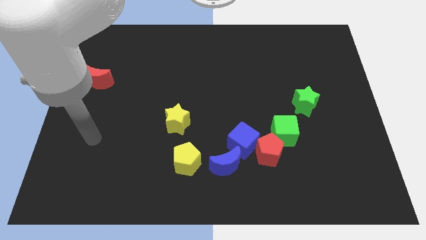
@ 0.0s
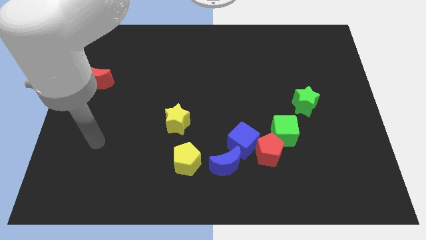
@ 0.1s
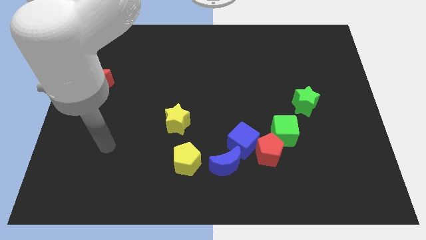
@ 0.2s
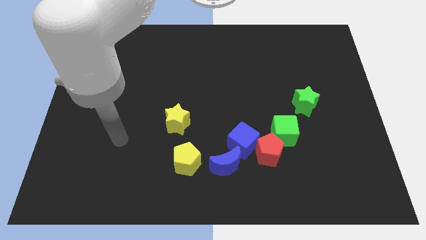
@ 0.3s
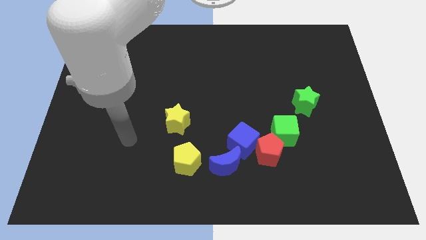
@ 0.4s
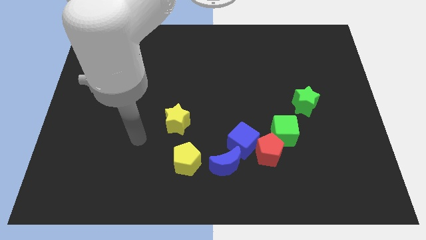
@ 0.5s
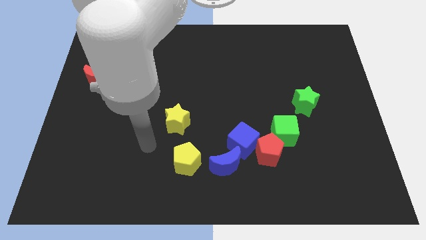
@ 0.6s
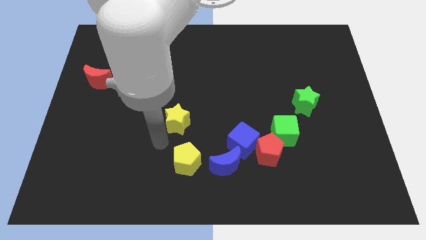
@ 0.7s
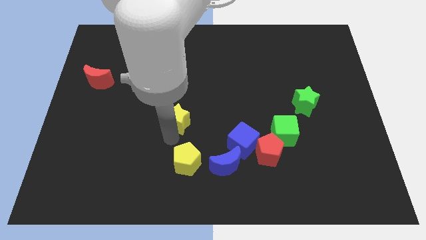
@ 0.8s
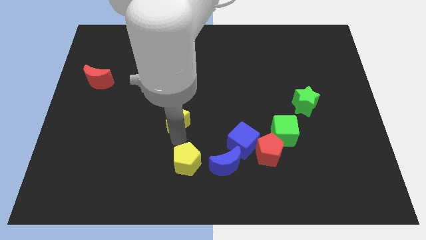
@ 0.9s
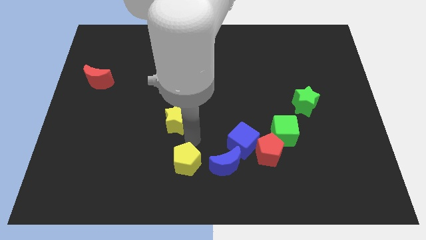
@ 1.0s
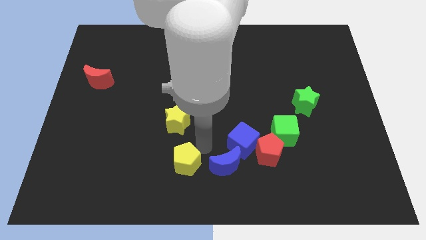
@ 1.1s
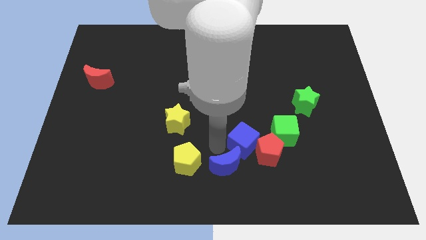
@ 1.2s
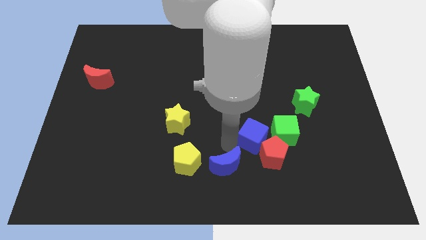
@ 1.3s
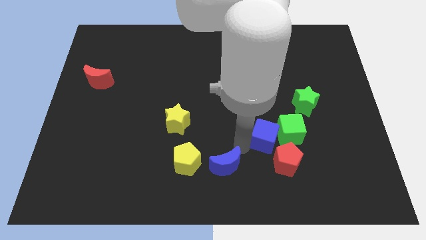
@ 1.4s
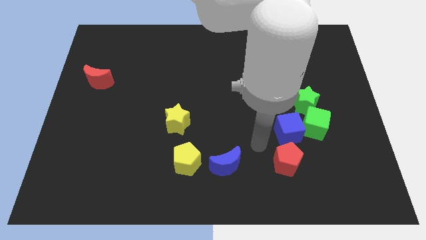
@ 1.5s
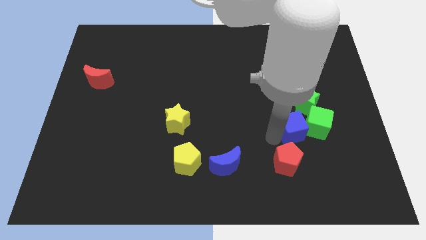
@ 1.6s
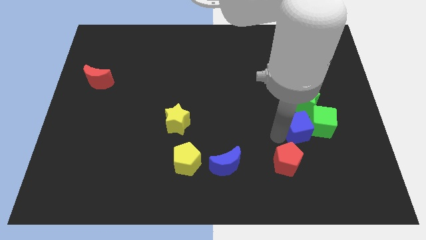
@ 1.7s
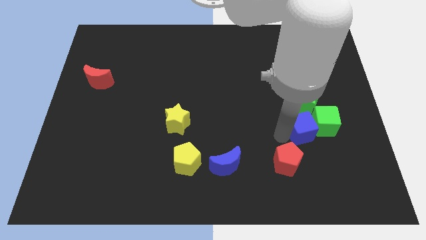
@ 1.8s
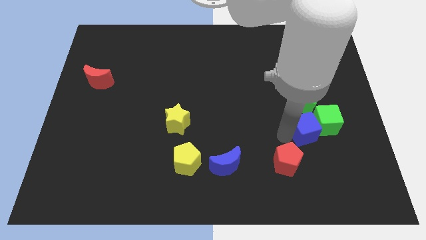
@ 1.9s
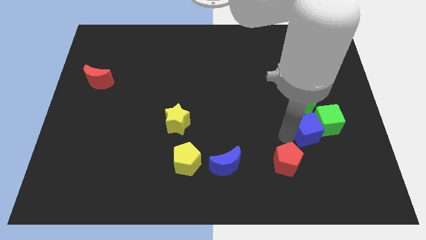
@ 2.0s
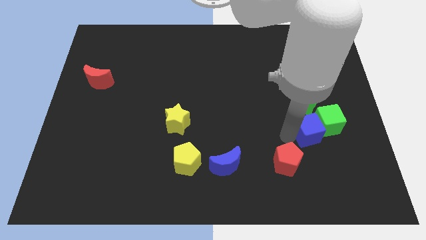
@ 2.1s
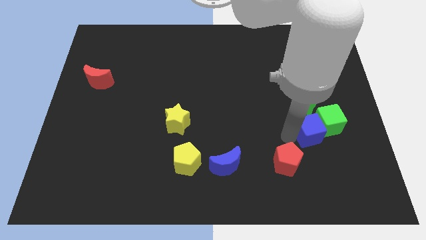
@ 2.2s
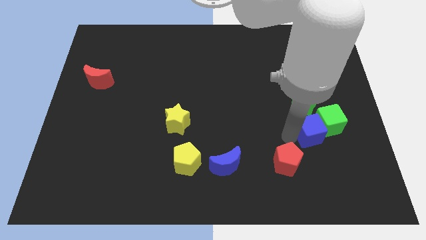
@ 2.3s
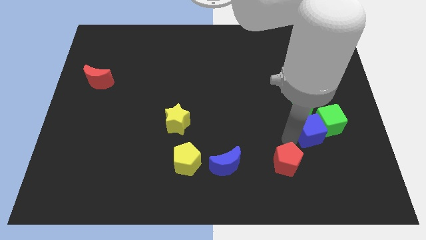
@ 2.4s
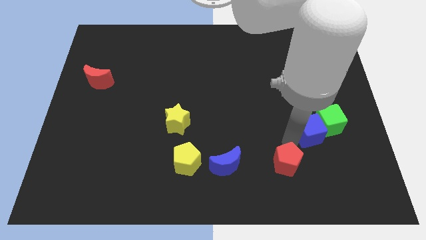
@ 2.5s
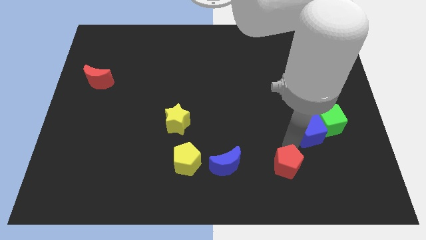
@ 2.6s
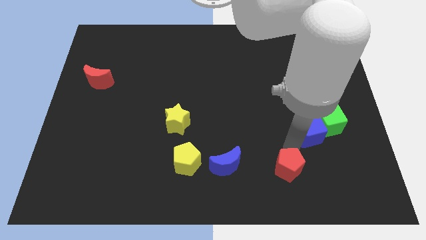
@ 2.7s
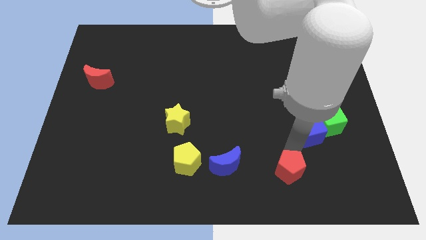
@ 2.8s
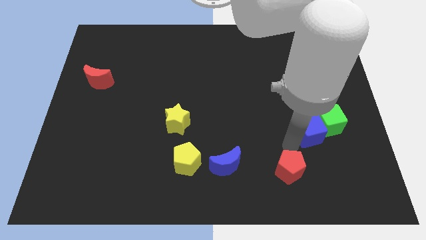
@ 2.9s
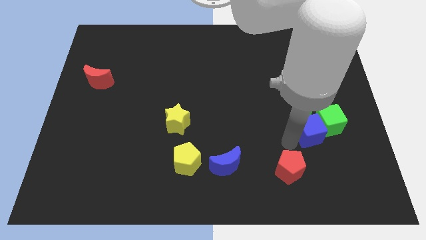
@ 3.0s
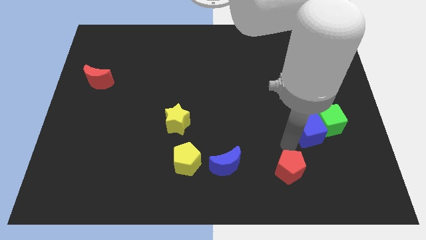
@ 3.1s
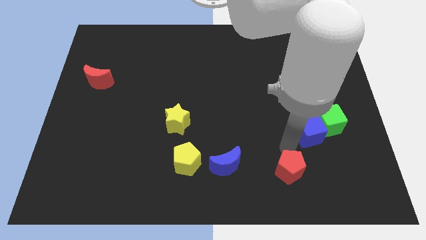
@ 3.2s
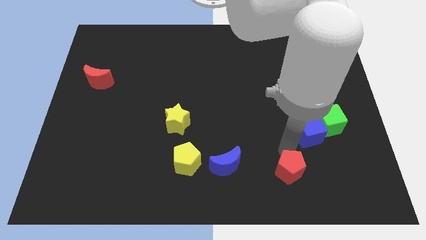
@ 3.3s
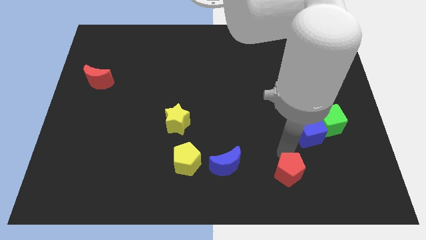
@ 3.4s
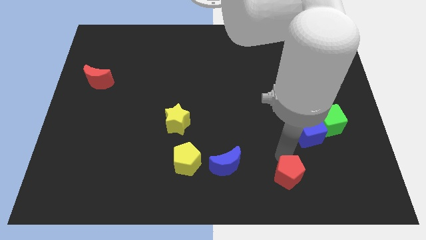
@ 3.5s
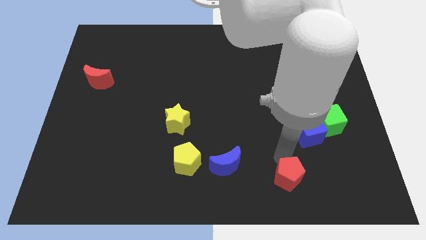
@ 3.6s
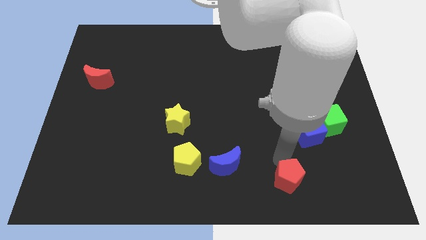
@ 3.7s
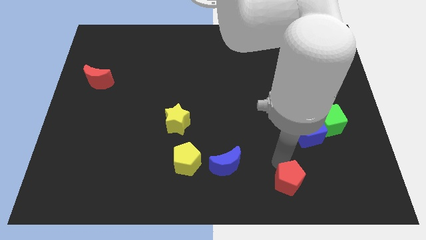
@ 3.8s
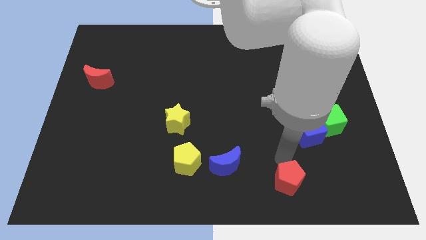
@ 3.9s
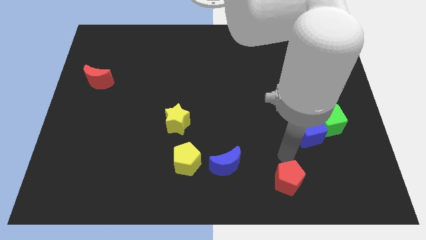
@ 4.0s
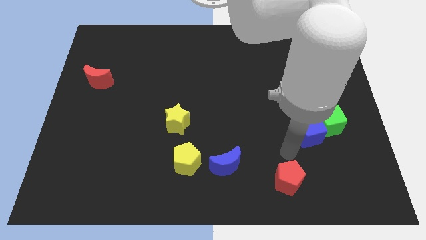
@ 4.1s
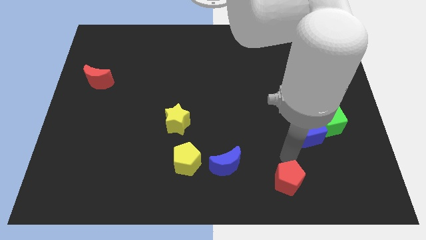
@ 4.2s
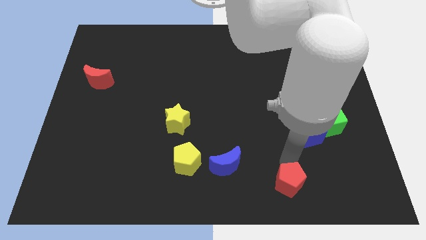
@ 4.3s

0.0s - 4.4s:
separate the red pentagon from the clump

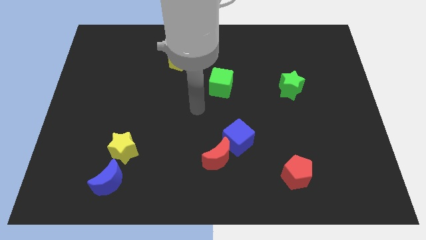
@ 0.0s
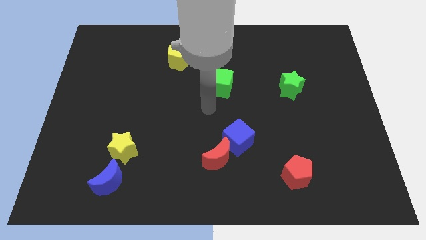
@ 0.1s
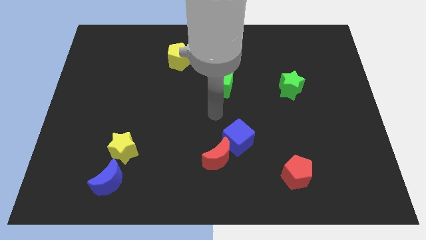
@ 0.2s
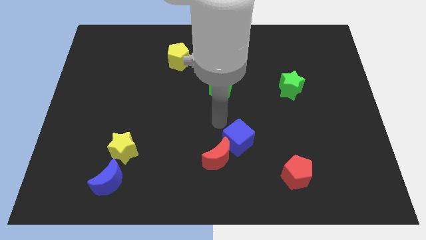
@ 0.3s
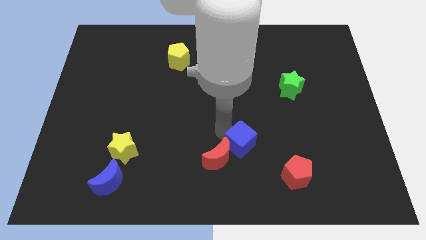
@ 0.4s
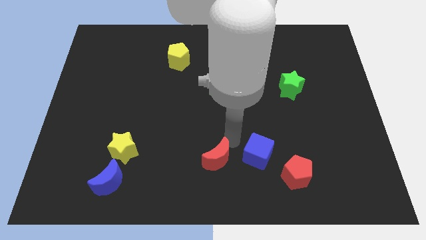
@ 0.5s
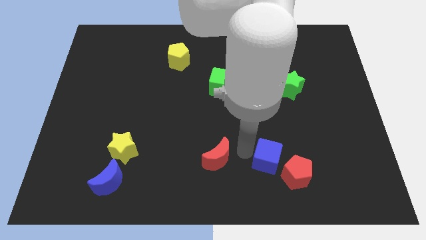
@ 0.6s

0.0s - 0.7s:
separate the red moon from the blue cube

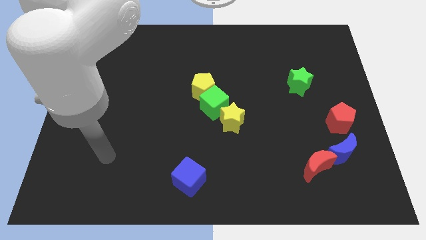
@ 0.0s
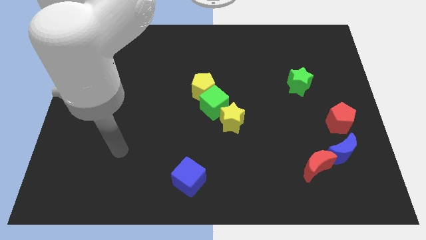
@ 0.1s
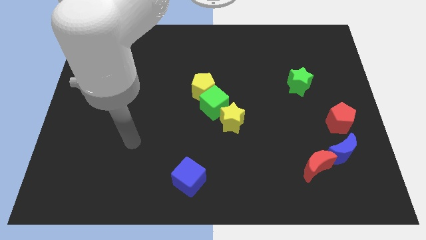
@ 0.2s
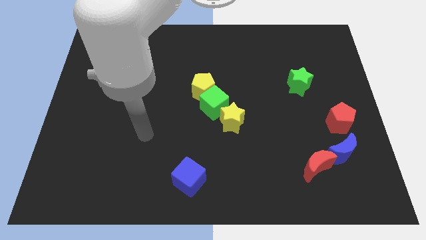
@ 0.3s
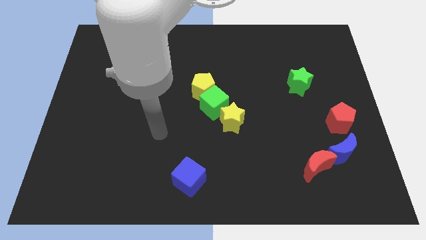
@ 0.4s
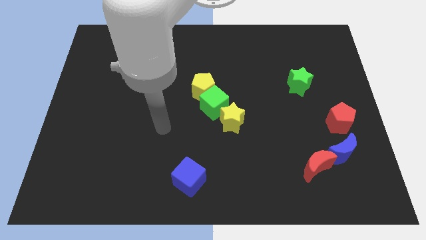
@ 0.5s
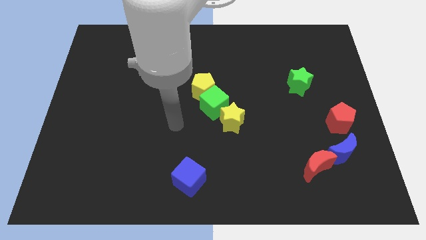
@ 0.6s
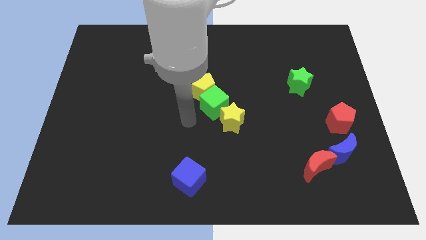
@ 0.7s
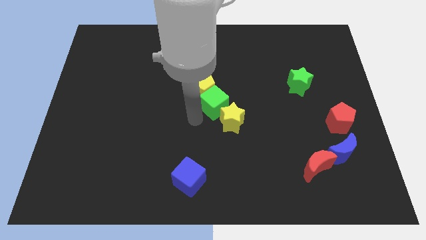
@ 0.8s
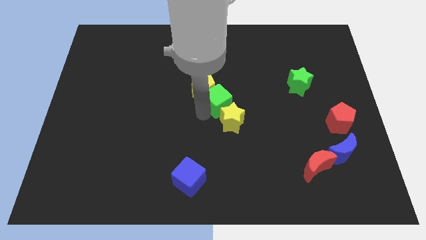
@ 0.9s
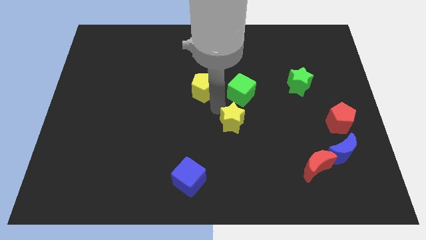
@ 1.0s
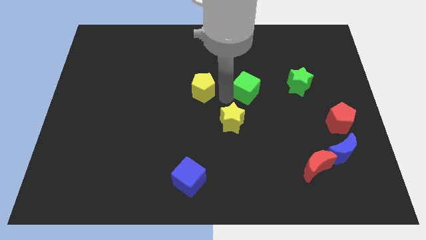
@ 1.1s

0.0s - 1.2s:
separate the yellow pentagon from the green cube

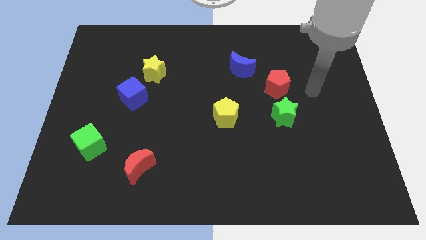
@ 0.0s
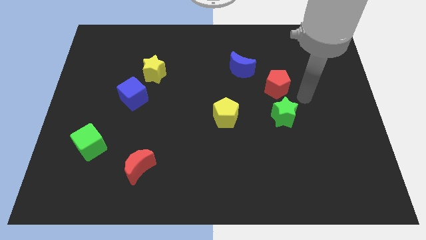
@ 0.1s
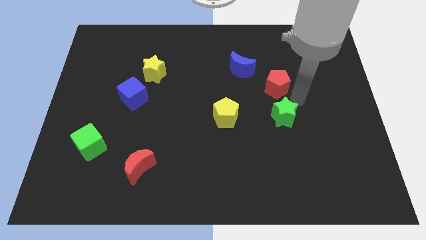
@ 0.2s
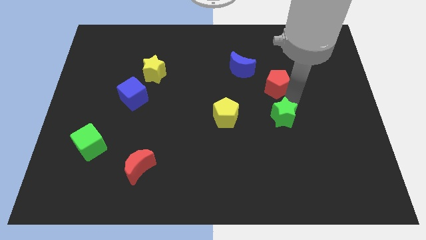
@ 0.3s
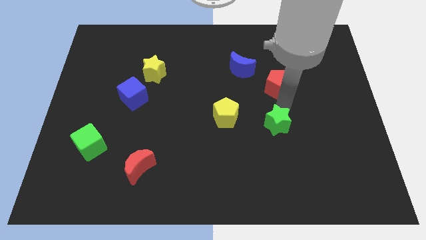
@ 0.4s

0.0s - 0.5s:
separate the red pentagon from the green star

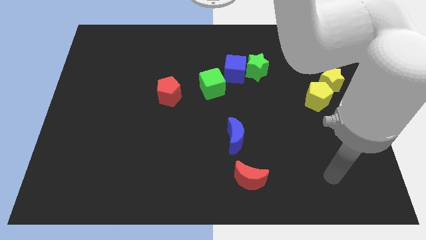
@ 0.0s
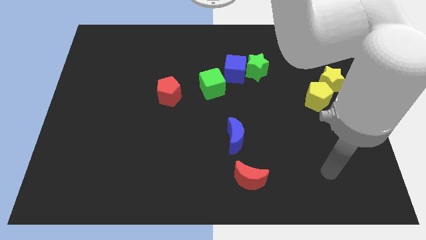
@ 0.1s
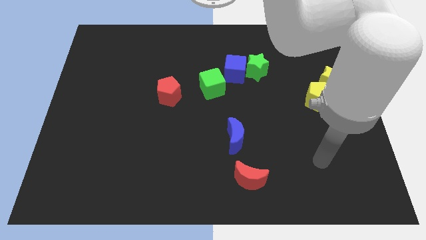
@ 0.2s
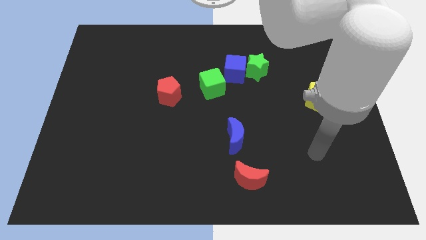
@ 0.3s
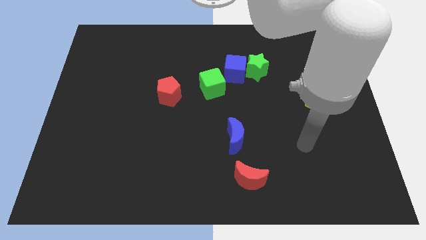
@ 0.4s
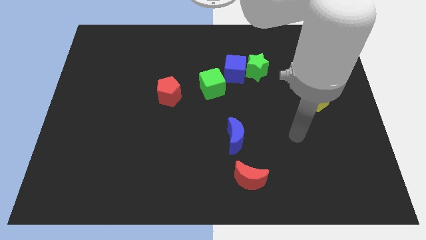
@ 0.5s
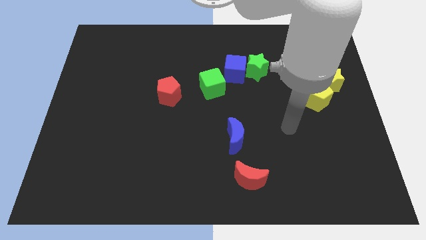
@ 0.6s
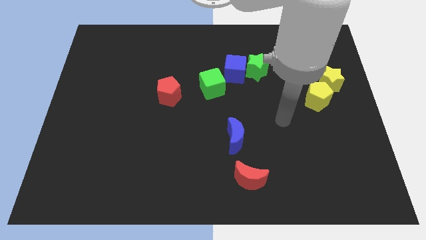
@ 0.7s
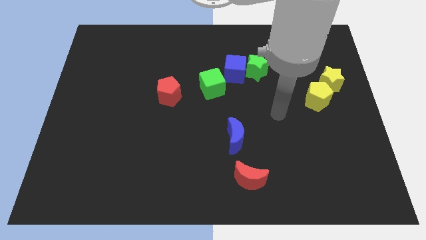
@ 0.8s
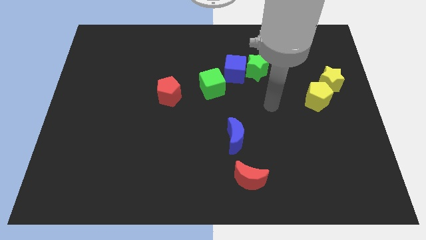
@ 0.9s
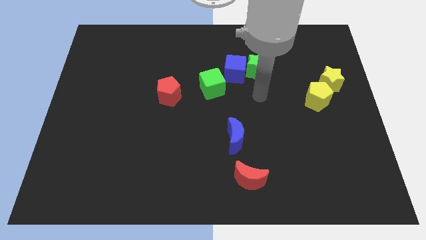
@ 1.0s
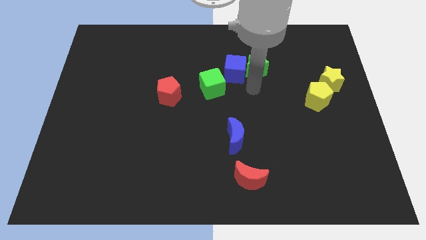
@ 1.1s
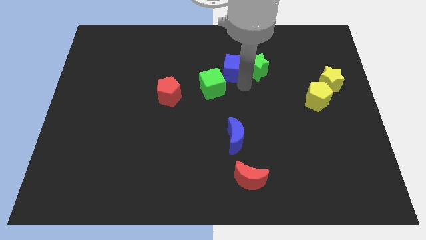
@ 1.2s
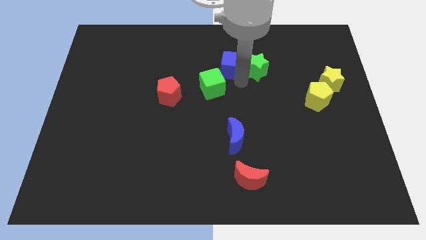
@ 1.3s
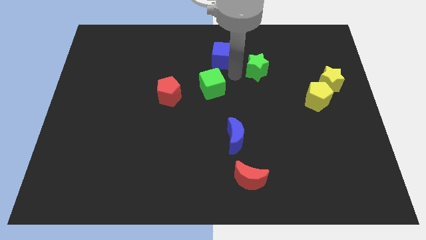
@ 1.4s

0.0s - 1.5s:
move the green star away from the blue cube

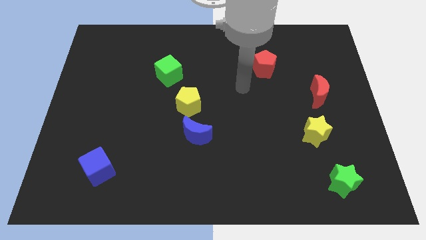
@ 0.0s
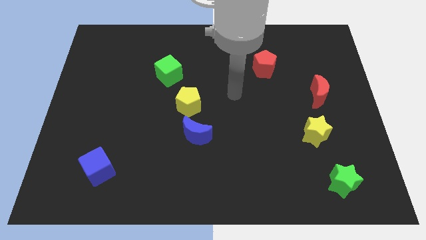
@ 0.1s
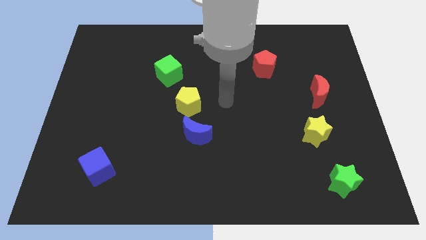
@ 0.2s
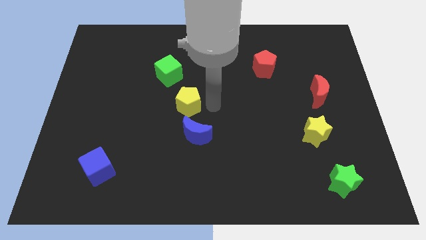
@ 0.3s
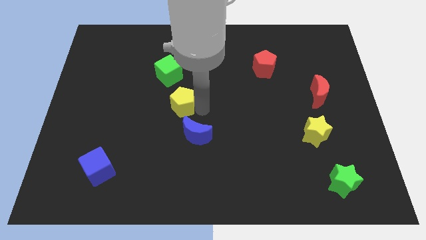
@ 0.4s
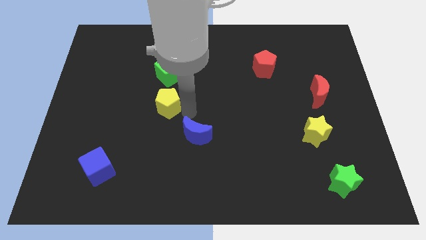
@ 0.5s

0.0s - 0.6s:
pull the blue moon apart from the yellow pentagon

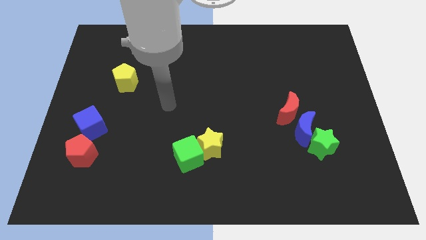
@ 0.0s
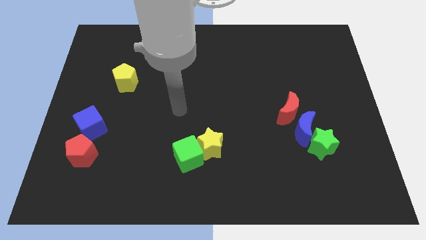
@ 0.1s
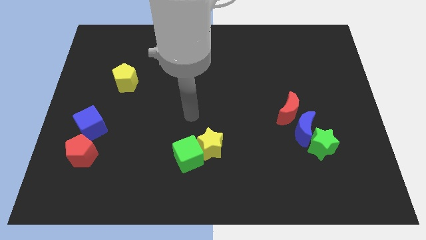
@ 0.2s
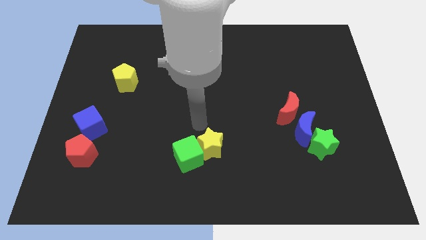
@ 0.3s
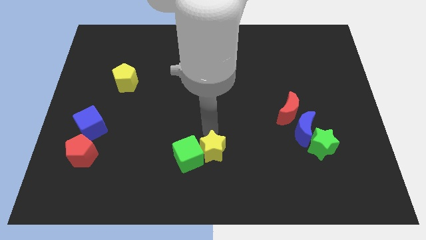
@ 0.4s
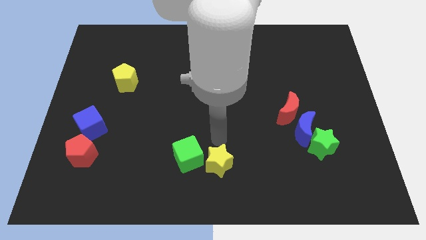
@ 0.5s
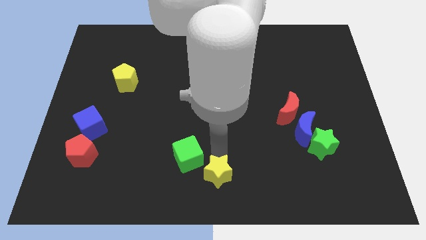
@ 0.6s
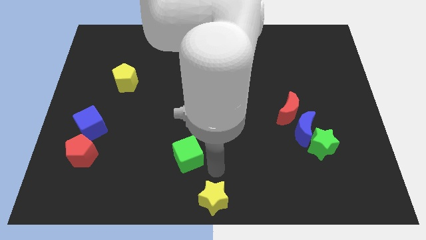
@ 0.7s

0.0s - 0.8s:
pull the green cube apart from the yellow star
